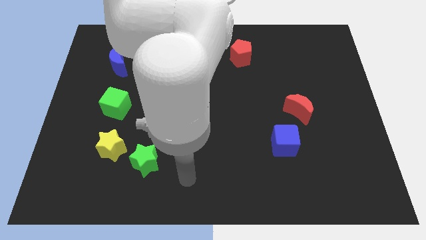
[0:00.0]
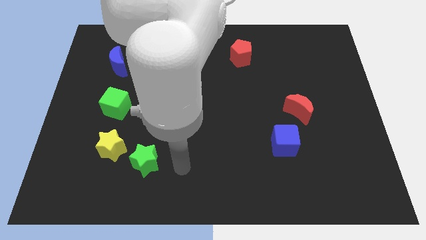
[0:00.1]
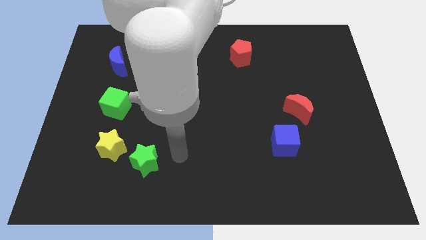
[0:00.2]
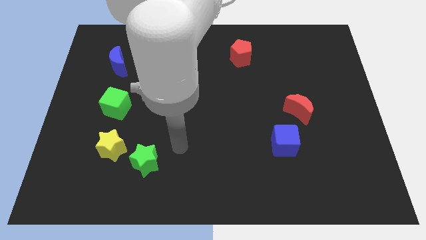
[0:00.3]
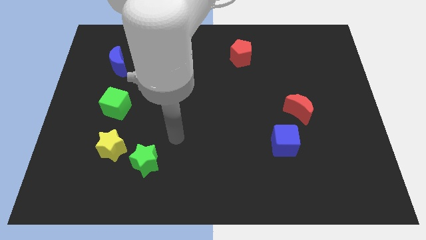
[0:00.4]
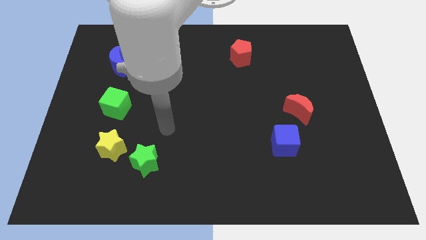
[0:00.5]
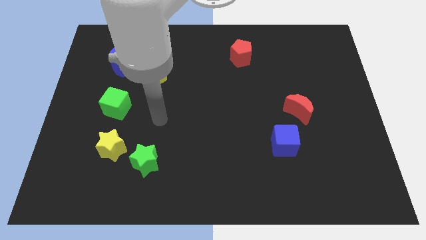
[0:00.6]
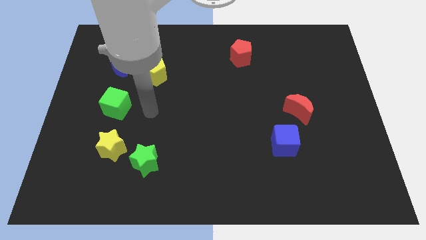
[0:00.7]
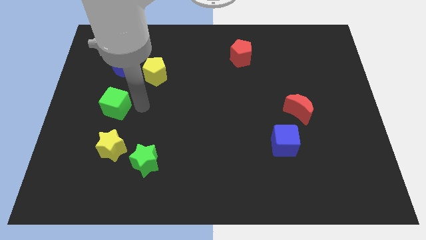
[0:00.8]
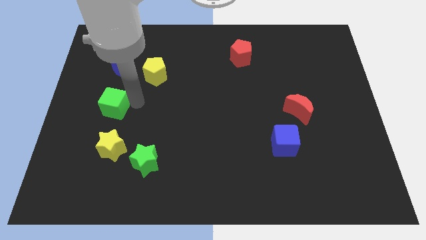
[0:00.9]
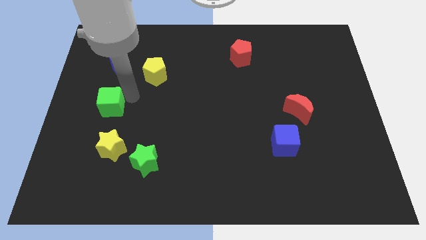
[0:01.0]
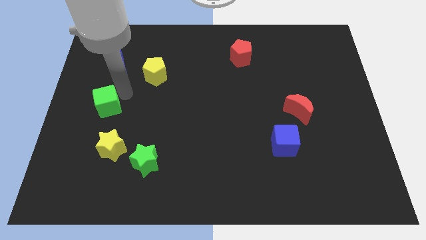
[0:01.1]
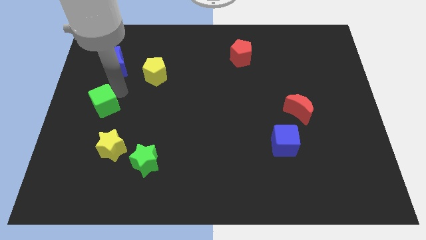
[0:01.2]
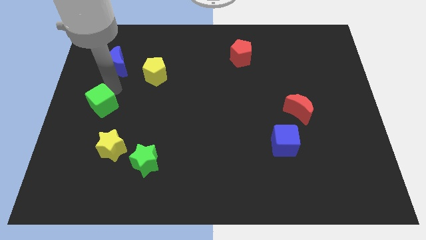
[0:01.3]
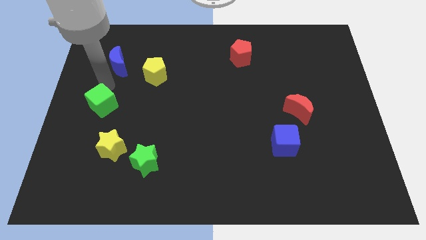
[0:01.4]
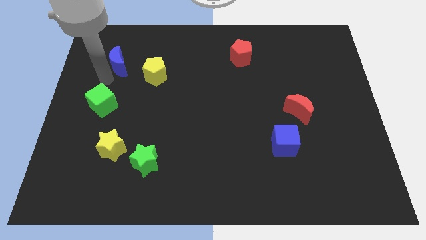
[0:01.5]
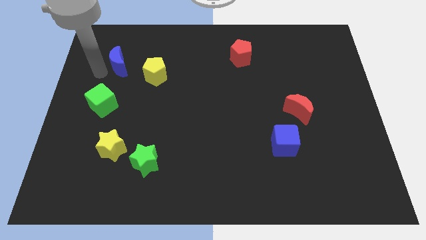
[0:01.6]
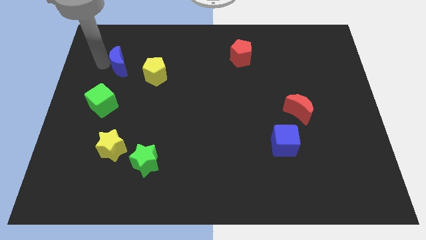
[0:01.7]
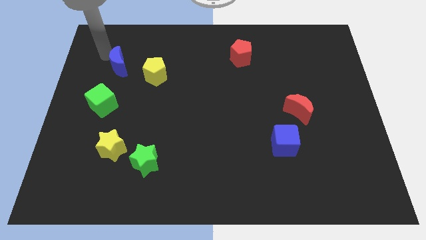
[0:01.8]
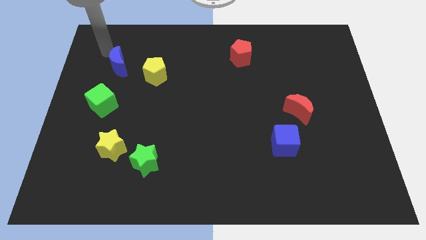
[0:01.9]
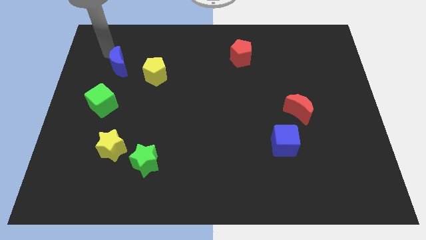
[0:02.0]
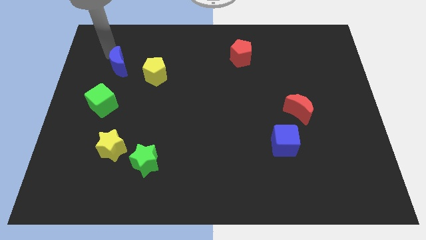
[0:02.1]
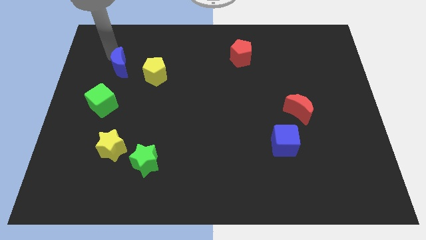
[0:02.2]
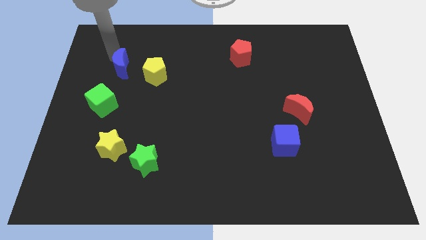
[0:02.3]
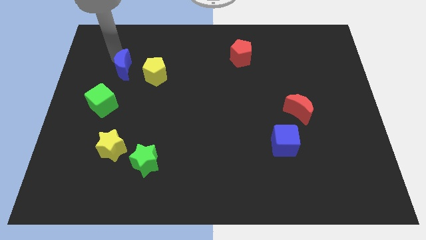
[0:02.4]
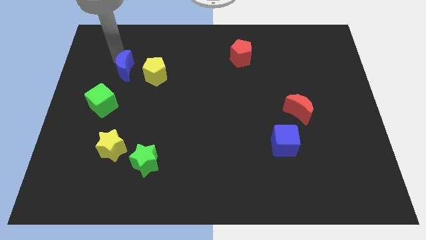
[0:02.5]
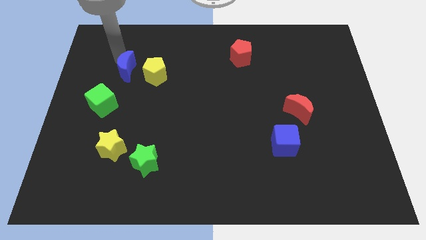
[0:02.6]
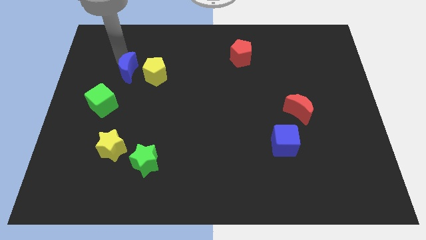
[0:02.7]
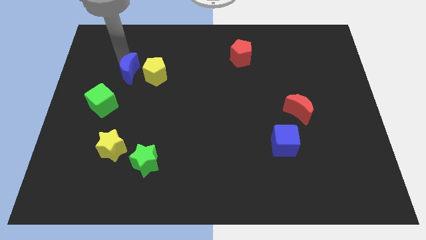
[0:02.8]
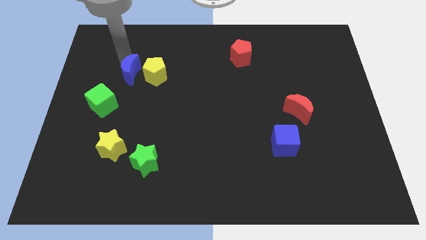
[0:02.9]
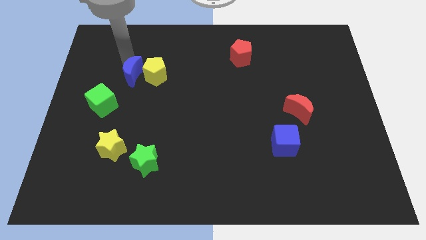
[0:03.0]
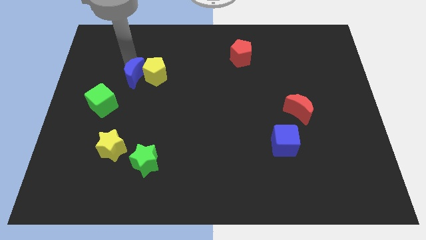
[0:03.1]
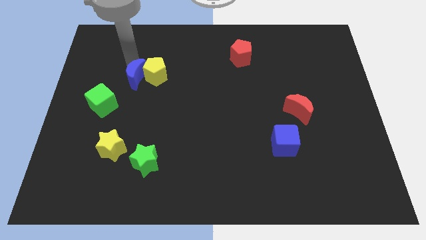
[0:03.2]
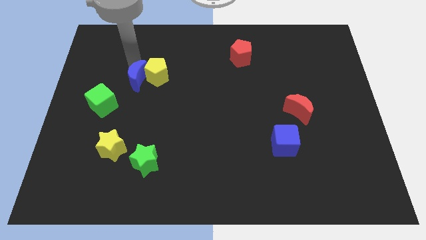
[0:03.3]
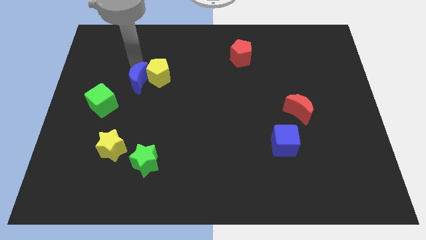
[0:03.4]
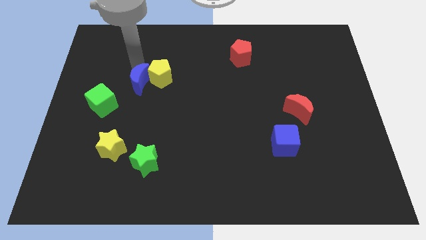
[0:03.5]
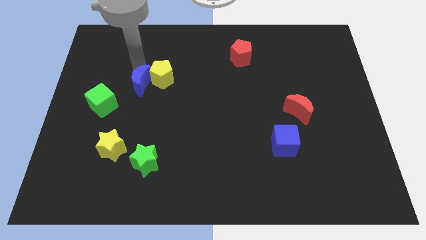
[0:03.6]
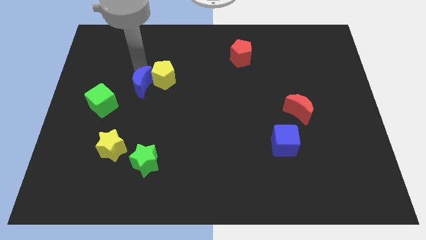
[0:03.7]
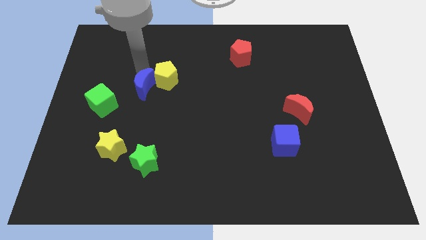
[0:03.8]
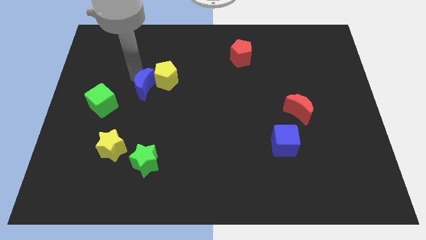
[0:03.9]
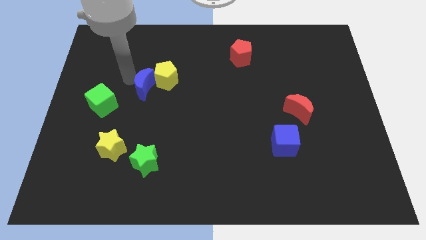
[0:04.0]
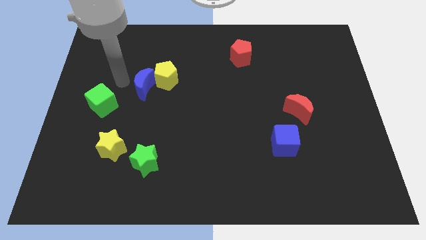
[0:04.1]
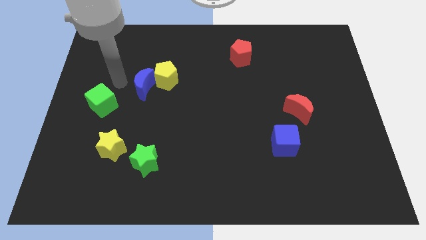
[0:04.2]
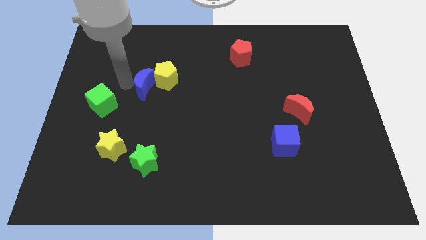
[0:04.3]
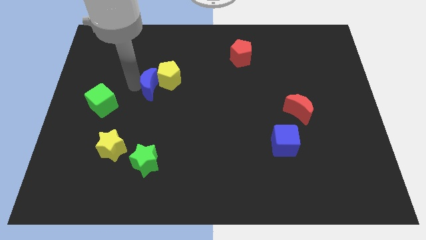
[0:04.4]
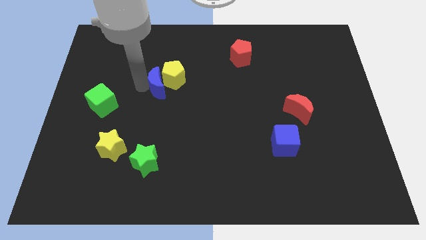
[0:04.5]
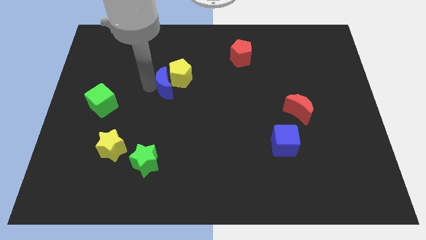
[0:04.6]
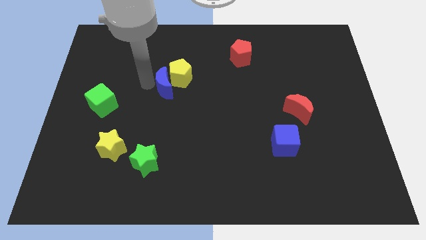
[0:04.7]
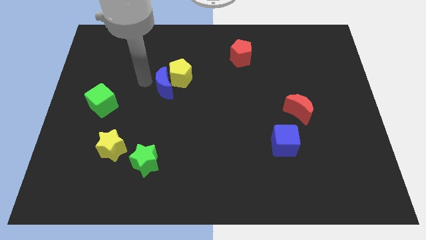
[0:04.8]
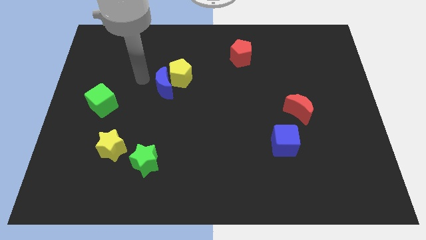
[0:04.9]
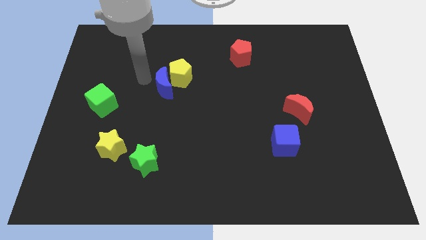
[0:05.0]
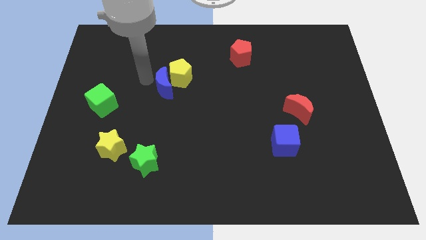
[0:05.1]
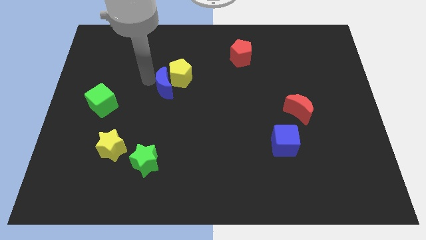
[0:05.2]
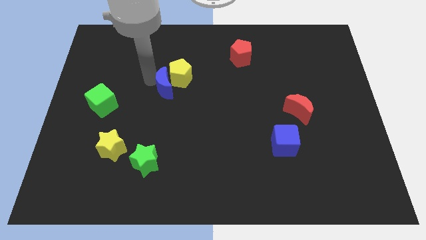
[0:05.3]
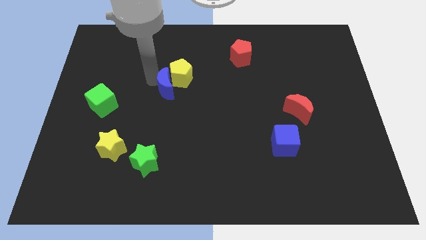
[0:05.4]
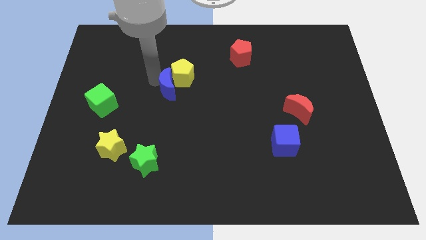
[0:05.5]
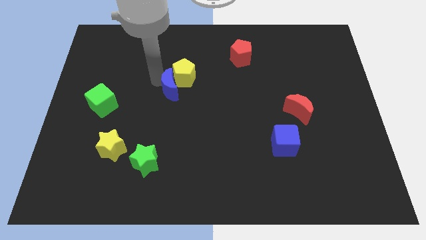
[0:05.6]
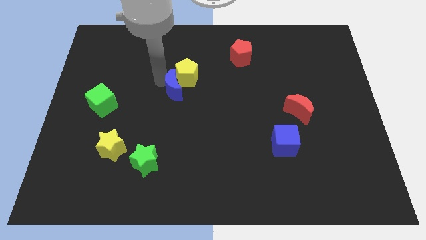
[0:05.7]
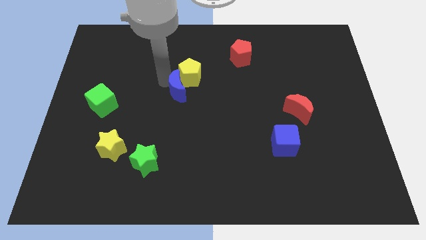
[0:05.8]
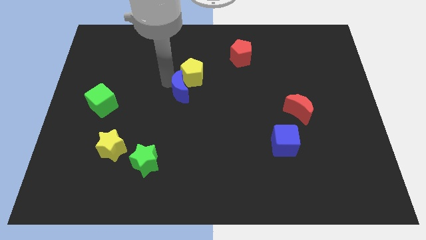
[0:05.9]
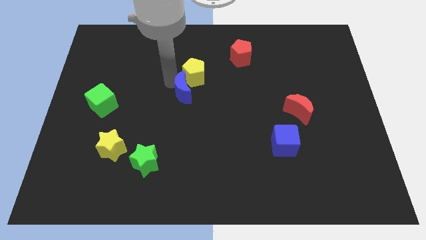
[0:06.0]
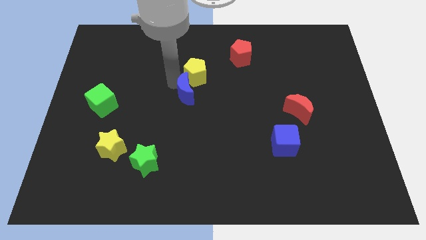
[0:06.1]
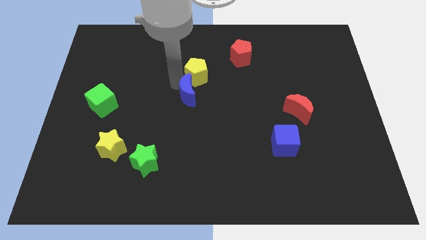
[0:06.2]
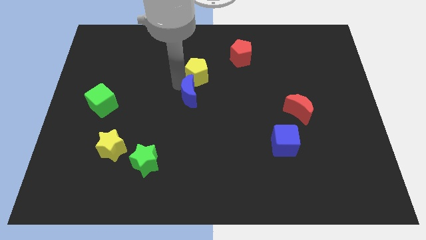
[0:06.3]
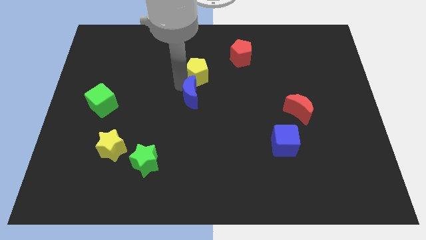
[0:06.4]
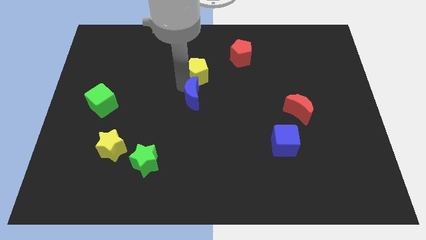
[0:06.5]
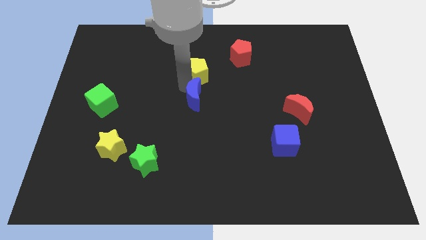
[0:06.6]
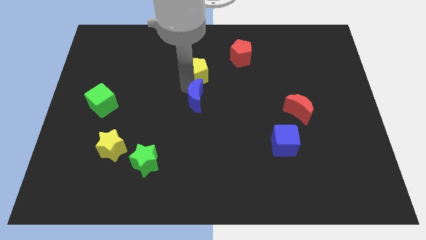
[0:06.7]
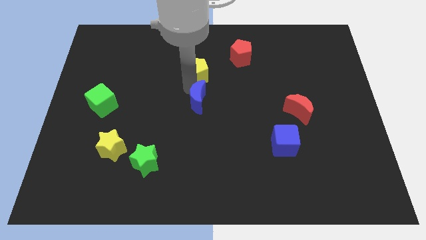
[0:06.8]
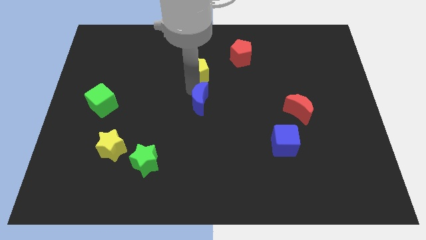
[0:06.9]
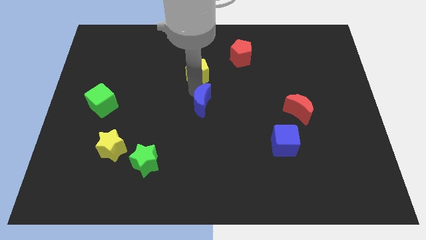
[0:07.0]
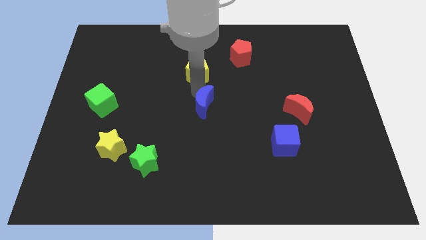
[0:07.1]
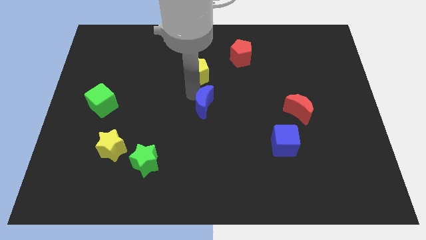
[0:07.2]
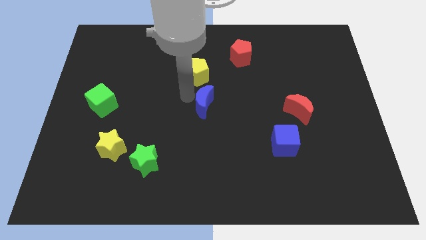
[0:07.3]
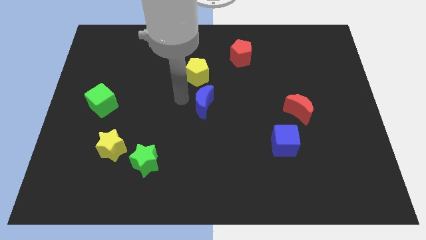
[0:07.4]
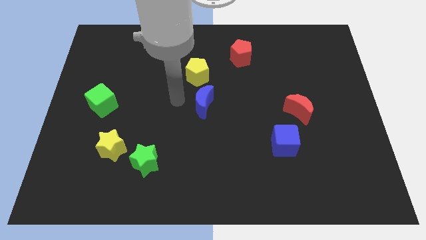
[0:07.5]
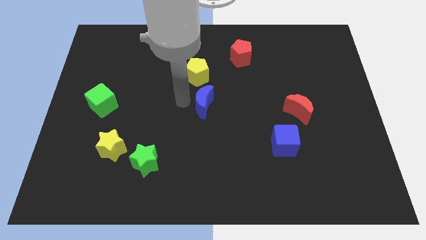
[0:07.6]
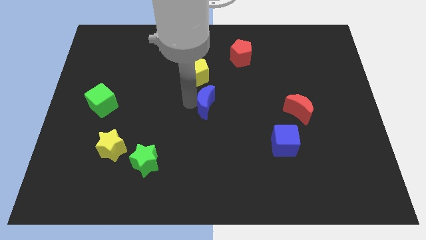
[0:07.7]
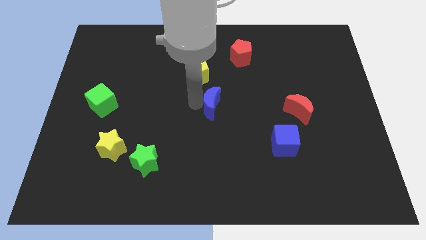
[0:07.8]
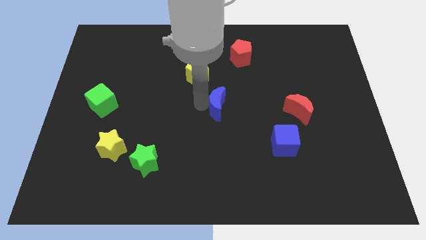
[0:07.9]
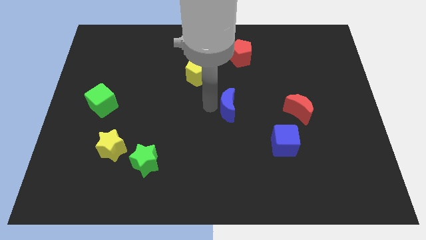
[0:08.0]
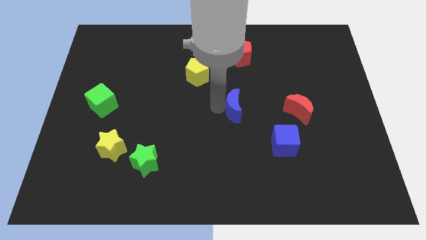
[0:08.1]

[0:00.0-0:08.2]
put the blue moon to the left side of the red moon
